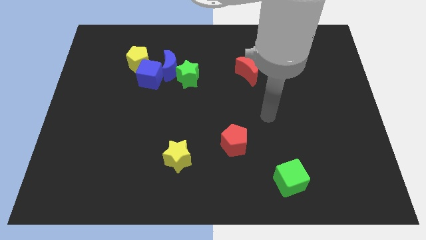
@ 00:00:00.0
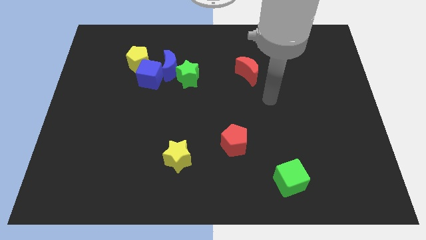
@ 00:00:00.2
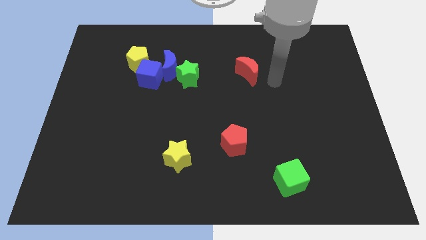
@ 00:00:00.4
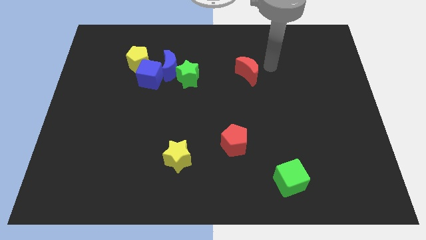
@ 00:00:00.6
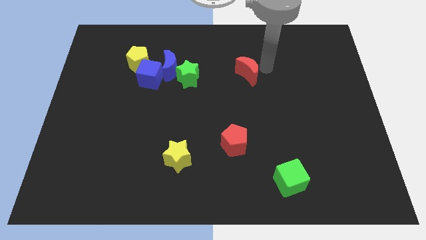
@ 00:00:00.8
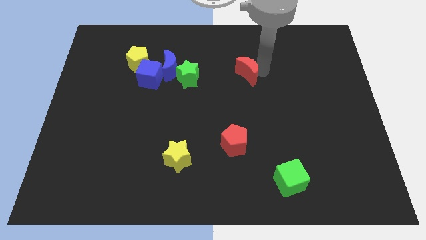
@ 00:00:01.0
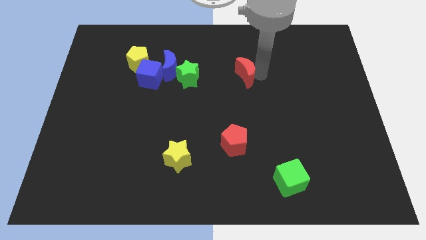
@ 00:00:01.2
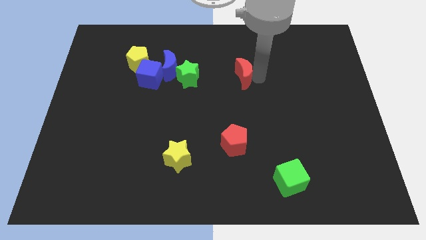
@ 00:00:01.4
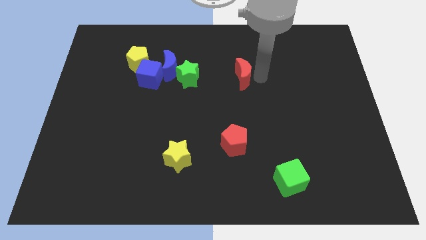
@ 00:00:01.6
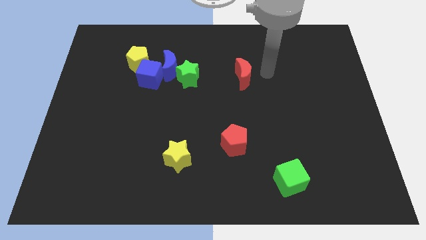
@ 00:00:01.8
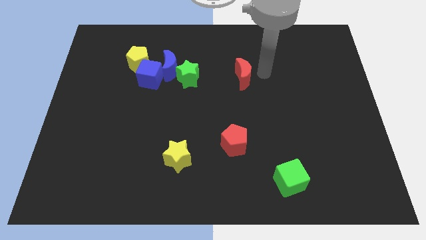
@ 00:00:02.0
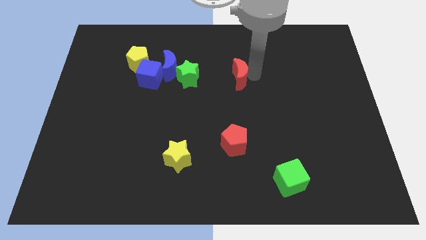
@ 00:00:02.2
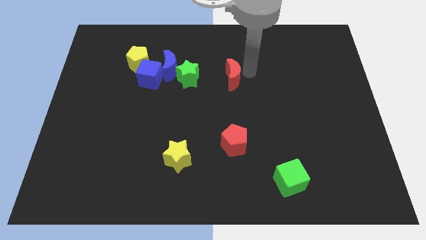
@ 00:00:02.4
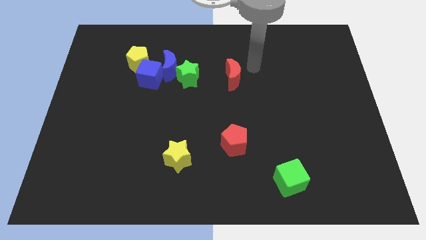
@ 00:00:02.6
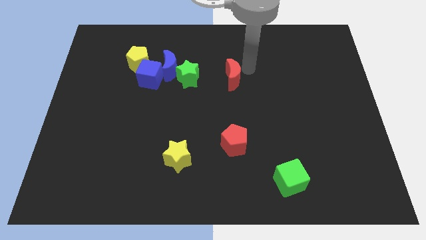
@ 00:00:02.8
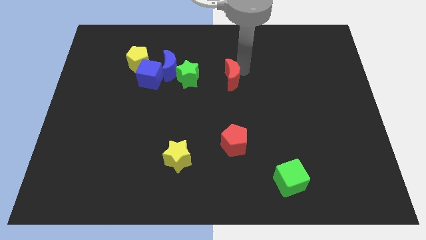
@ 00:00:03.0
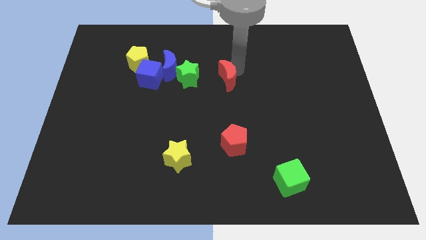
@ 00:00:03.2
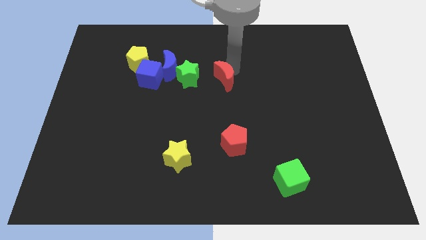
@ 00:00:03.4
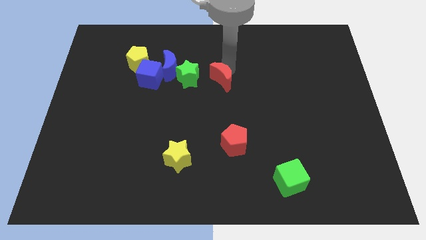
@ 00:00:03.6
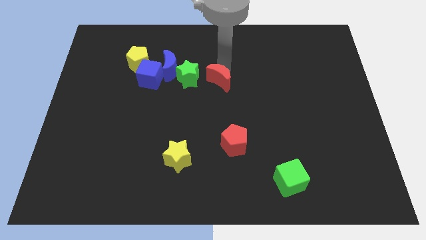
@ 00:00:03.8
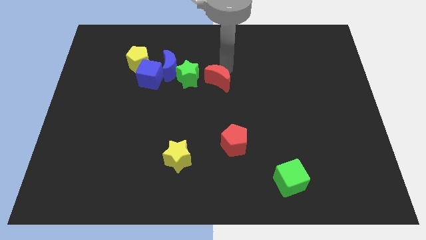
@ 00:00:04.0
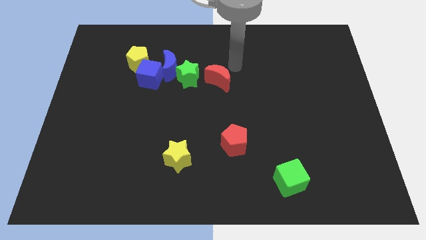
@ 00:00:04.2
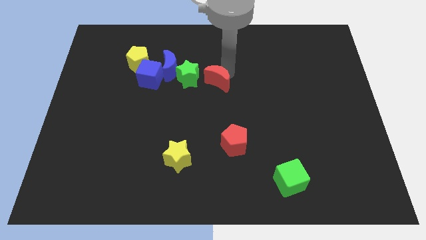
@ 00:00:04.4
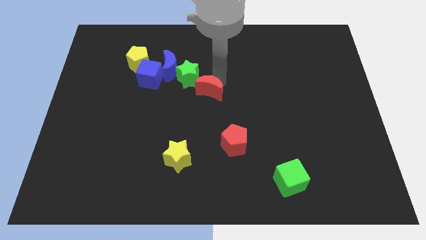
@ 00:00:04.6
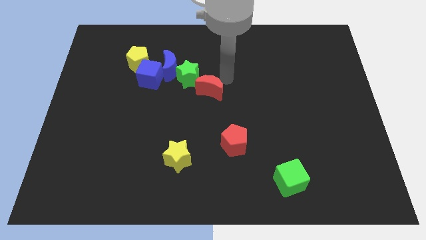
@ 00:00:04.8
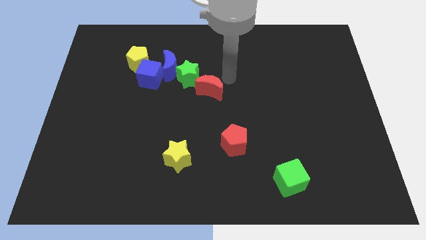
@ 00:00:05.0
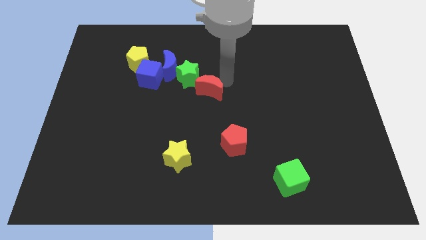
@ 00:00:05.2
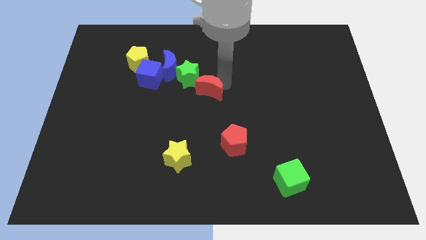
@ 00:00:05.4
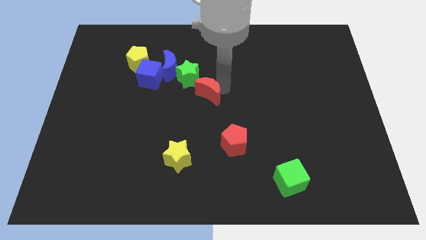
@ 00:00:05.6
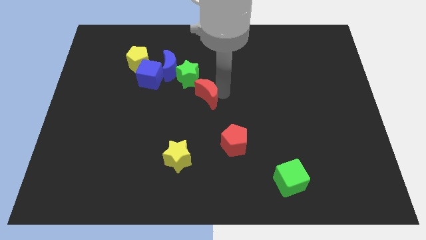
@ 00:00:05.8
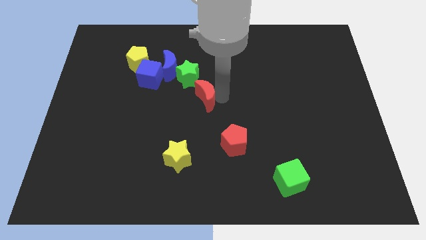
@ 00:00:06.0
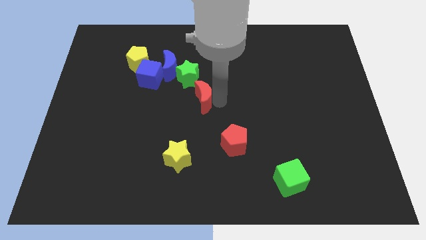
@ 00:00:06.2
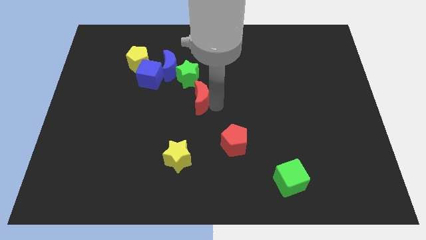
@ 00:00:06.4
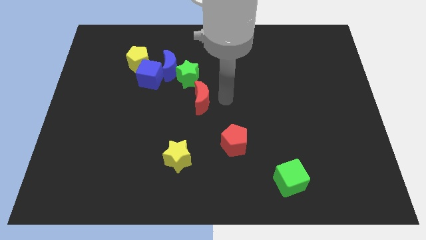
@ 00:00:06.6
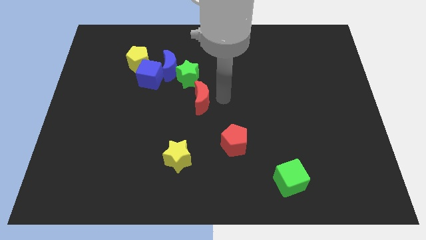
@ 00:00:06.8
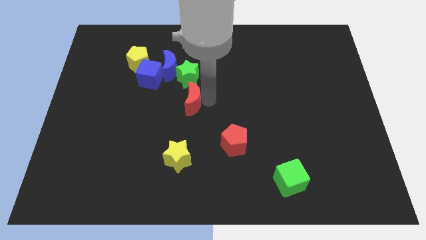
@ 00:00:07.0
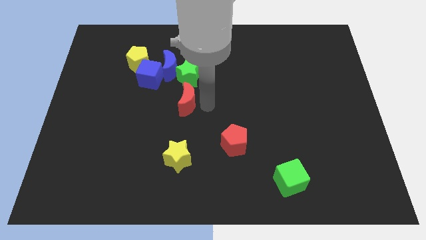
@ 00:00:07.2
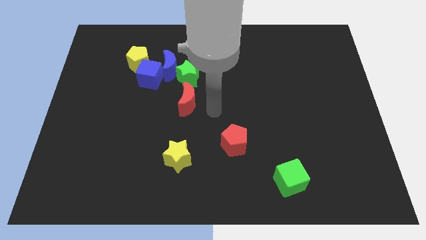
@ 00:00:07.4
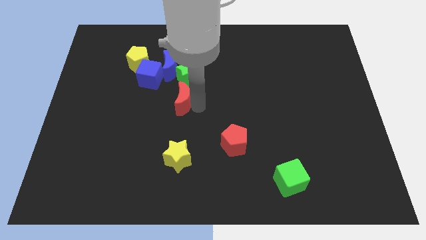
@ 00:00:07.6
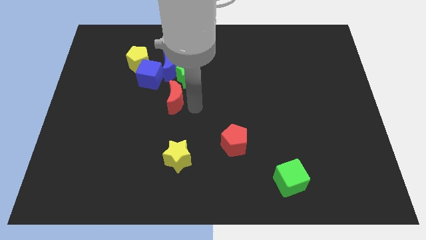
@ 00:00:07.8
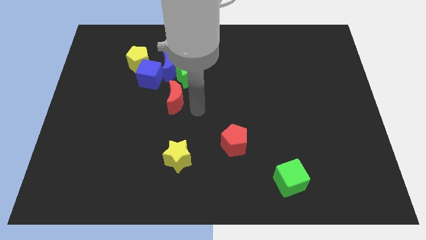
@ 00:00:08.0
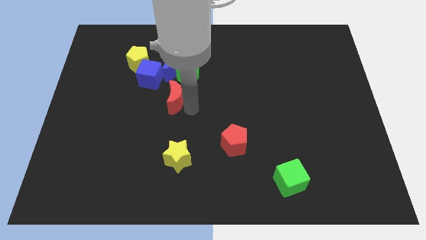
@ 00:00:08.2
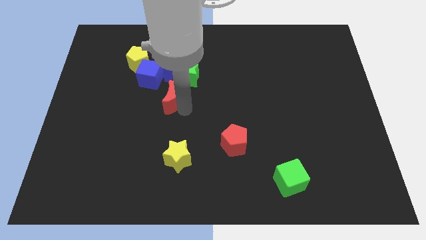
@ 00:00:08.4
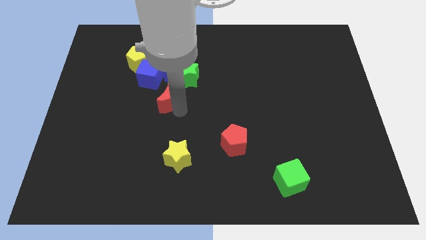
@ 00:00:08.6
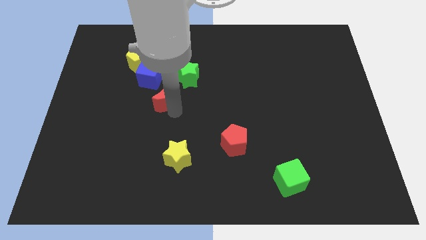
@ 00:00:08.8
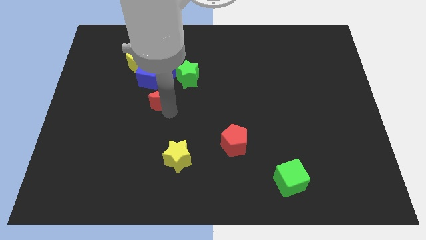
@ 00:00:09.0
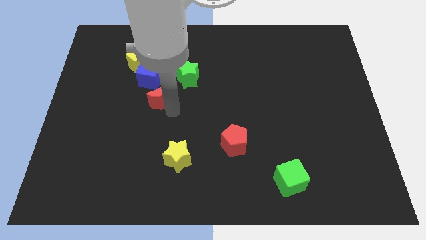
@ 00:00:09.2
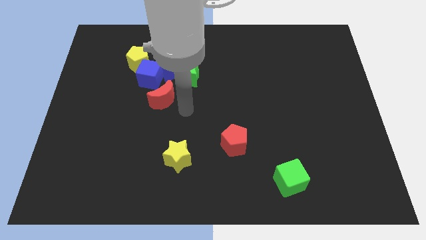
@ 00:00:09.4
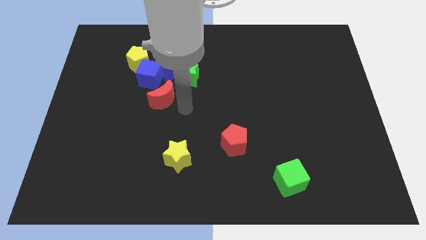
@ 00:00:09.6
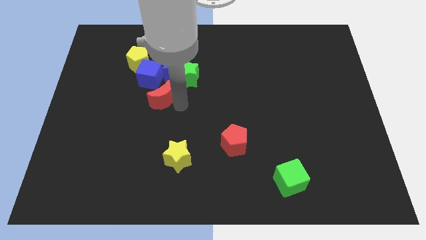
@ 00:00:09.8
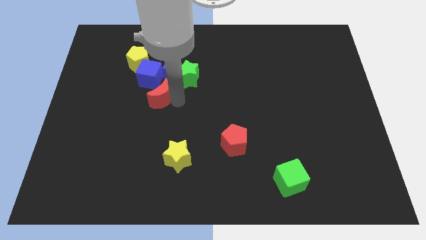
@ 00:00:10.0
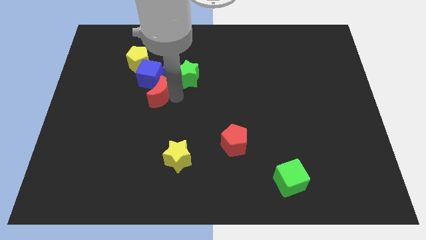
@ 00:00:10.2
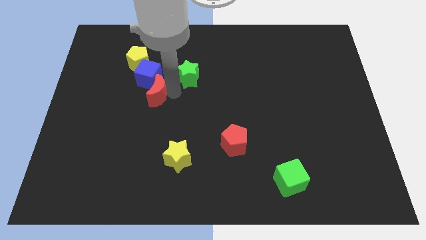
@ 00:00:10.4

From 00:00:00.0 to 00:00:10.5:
slide the red moon left

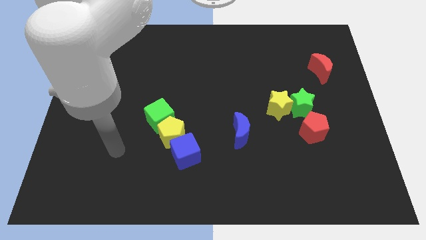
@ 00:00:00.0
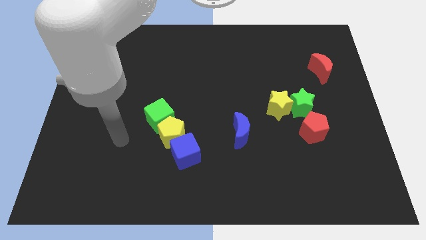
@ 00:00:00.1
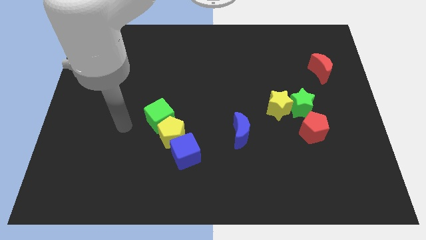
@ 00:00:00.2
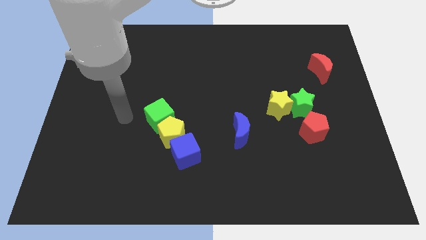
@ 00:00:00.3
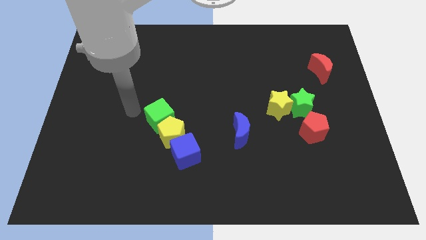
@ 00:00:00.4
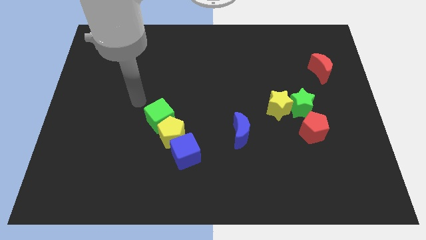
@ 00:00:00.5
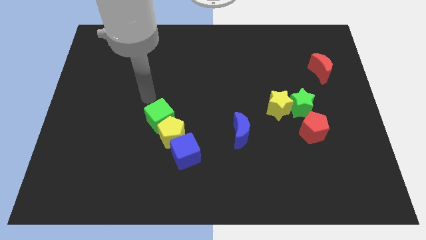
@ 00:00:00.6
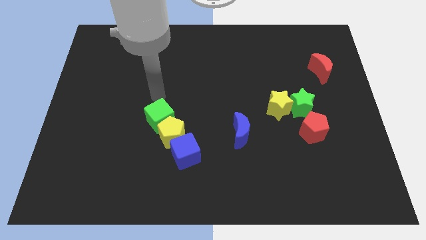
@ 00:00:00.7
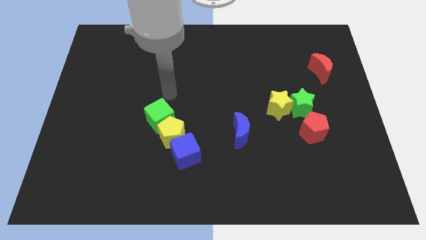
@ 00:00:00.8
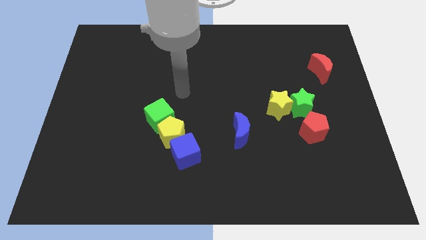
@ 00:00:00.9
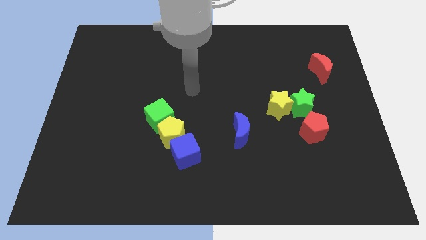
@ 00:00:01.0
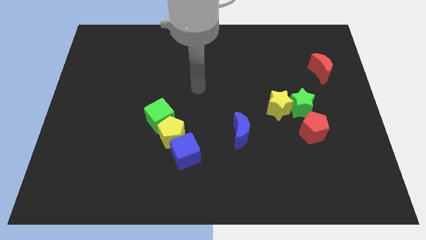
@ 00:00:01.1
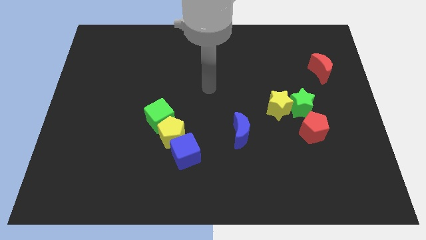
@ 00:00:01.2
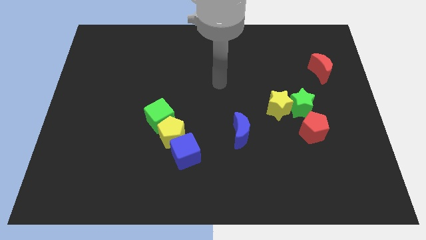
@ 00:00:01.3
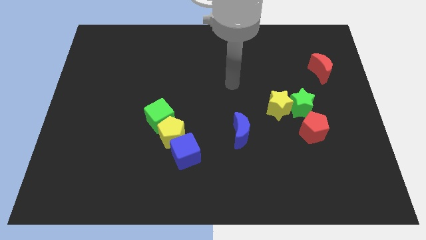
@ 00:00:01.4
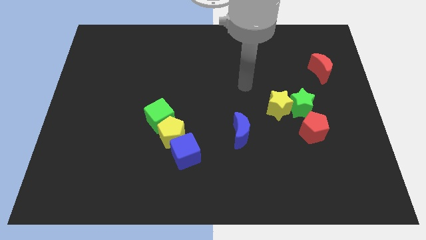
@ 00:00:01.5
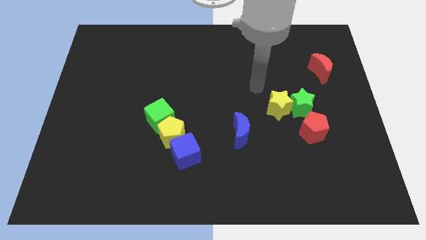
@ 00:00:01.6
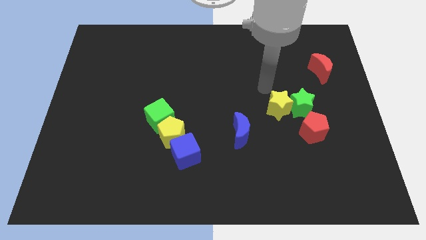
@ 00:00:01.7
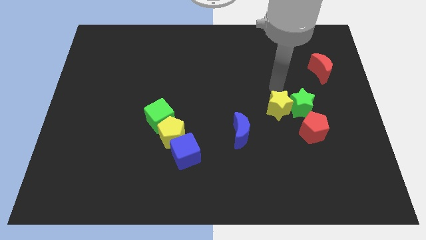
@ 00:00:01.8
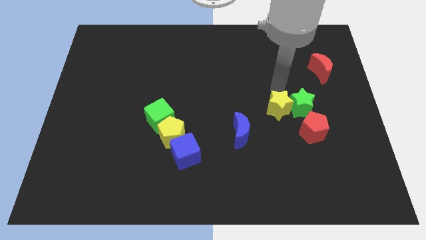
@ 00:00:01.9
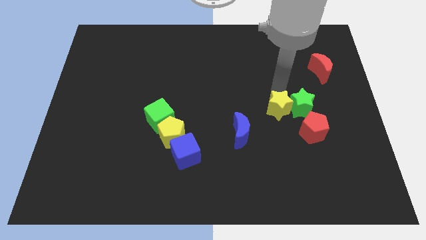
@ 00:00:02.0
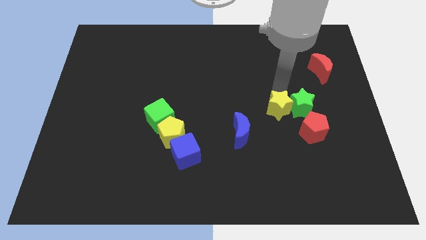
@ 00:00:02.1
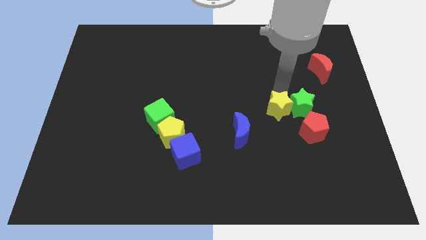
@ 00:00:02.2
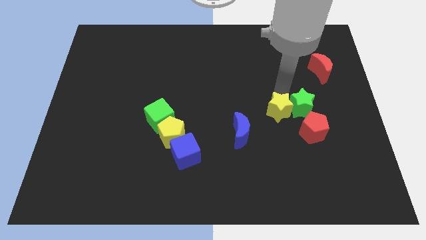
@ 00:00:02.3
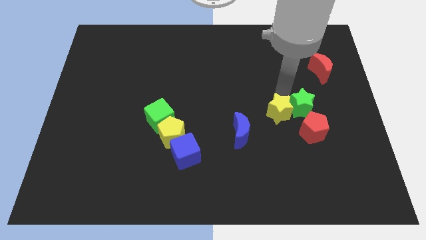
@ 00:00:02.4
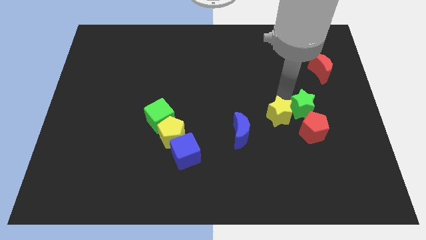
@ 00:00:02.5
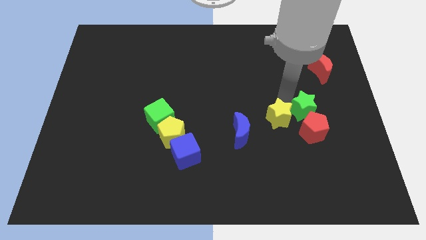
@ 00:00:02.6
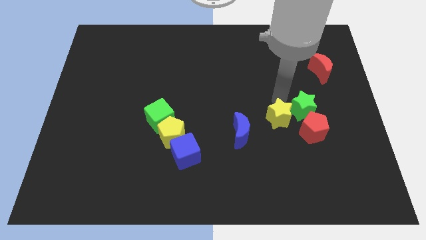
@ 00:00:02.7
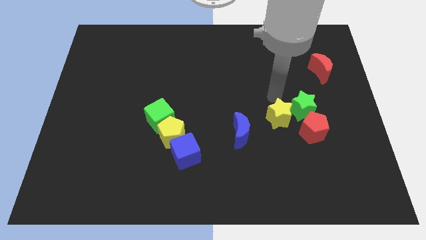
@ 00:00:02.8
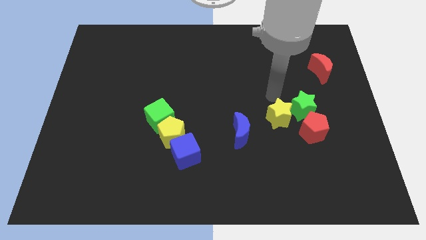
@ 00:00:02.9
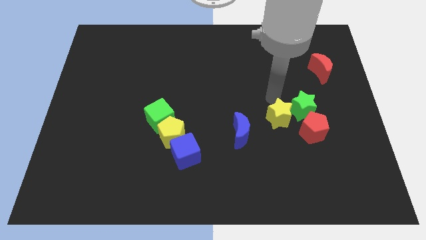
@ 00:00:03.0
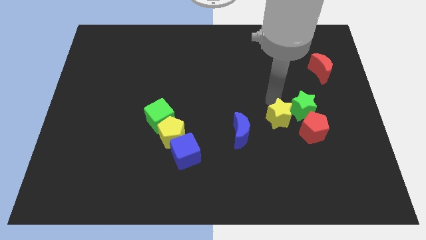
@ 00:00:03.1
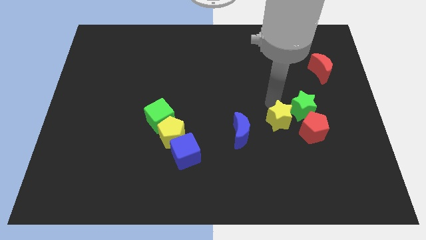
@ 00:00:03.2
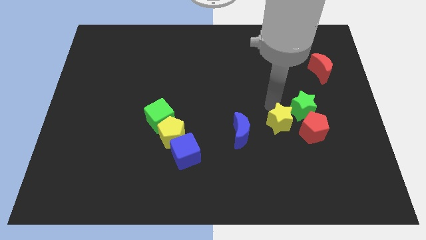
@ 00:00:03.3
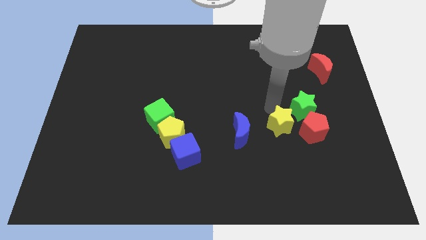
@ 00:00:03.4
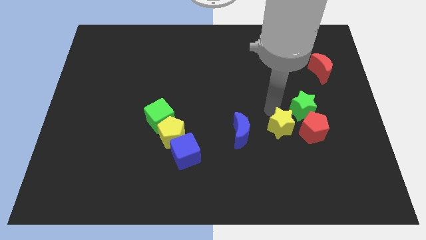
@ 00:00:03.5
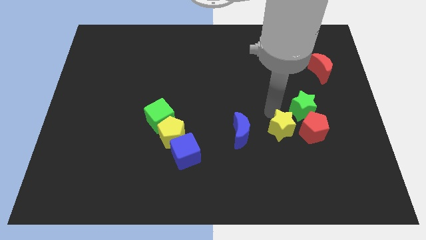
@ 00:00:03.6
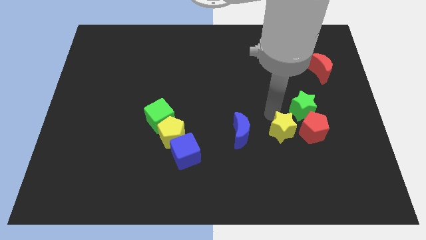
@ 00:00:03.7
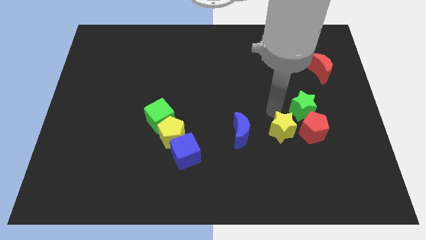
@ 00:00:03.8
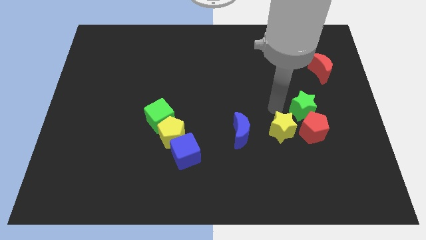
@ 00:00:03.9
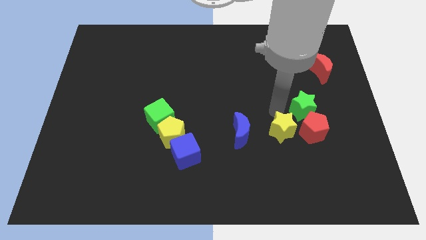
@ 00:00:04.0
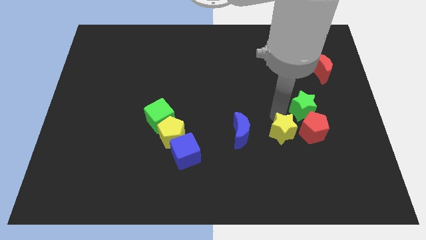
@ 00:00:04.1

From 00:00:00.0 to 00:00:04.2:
slightly push the yellow star down
